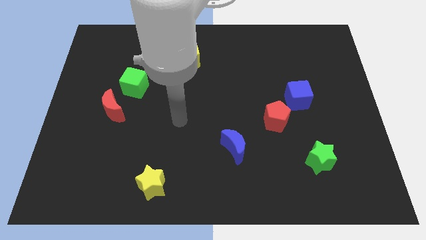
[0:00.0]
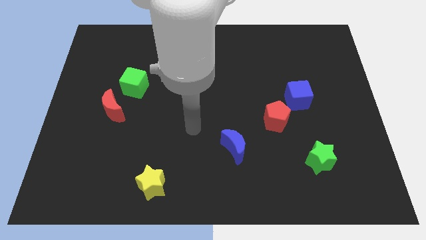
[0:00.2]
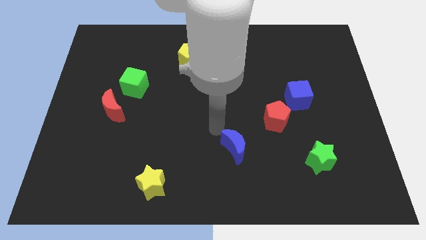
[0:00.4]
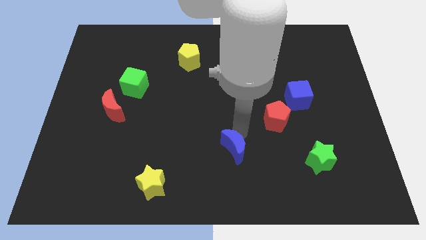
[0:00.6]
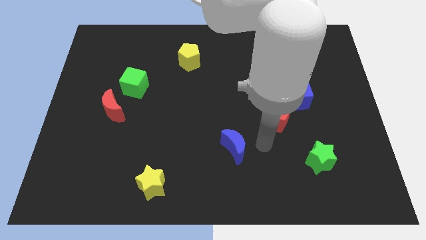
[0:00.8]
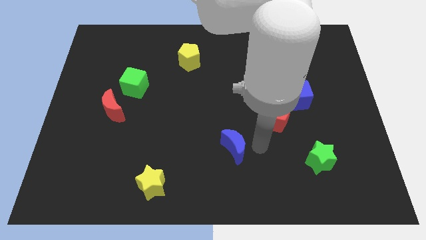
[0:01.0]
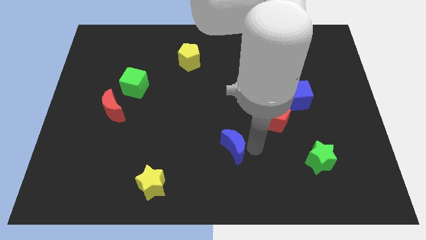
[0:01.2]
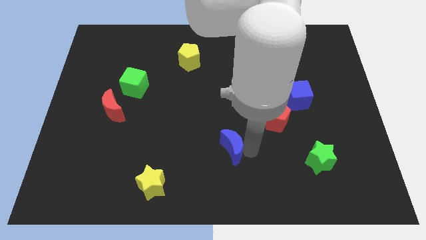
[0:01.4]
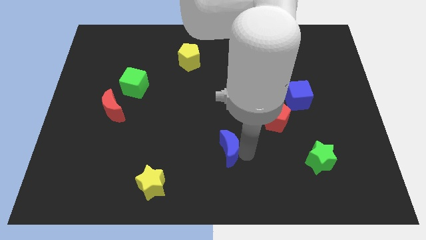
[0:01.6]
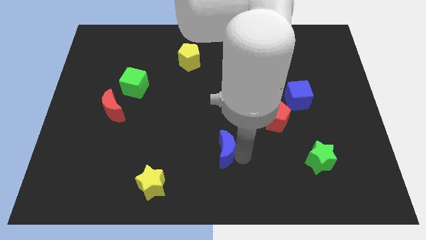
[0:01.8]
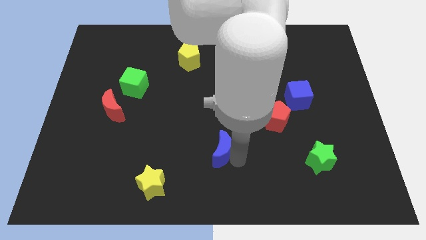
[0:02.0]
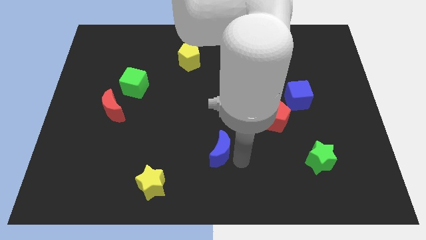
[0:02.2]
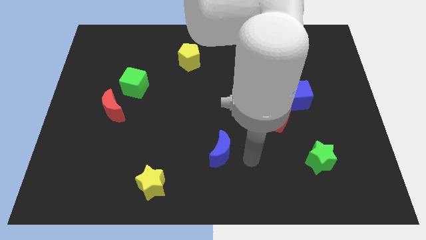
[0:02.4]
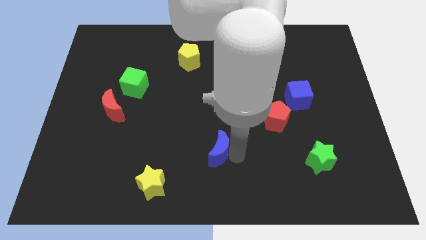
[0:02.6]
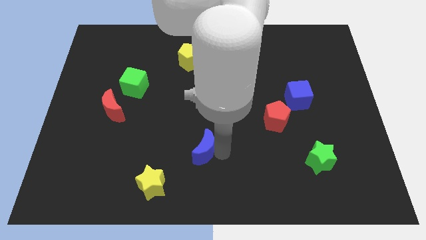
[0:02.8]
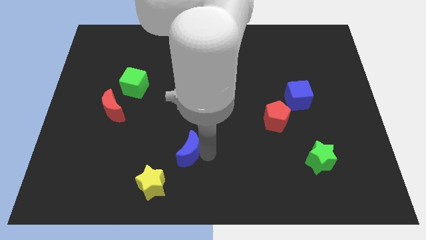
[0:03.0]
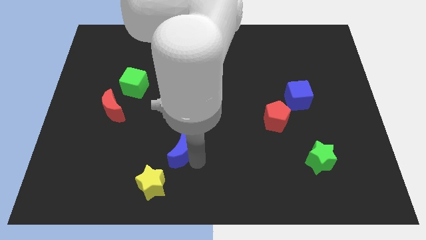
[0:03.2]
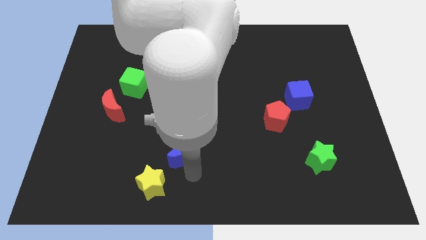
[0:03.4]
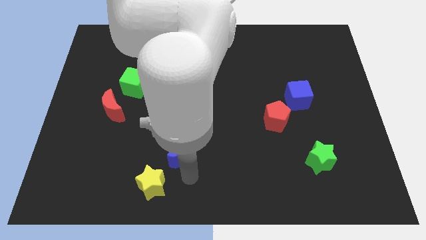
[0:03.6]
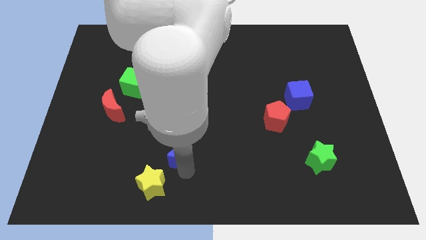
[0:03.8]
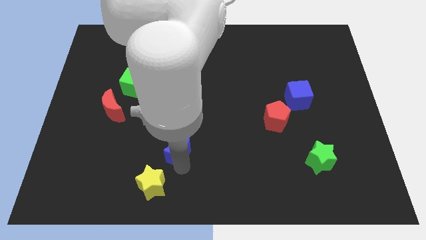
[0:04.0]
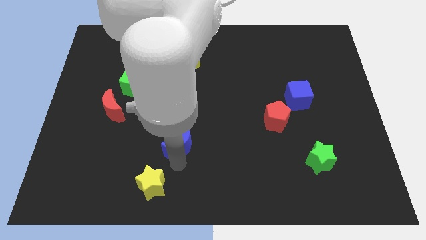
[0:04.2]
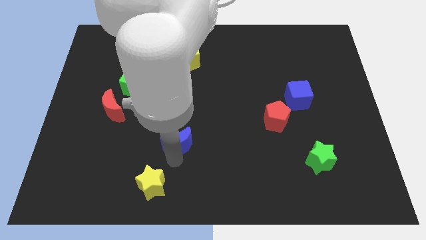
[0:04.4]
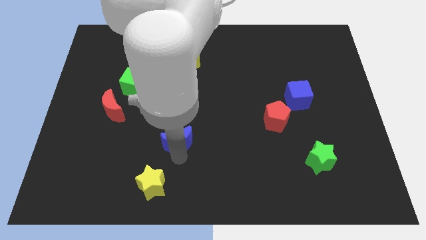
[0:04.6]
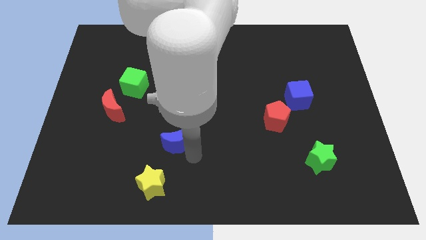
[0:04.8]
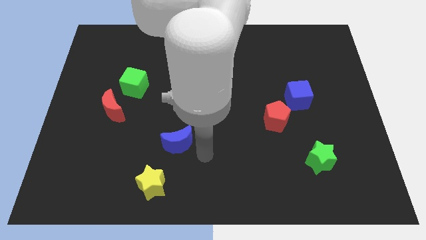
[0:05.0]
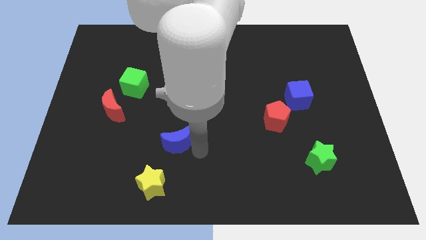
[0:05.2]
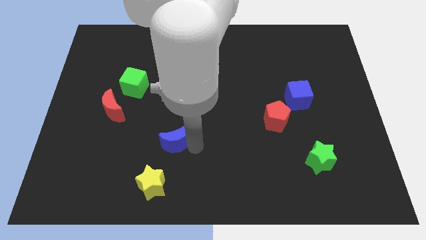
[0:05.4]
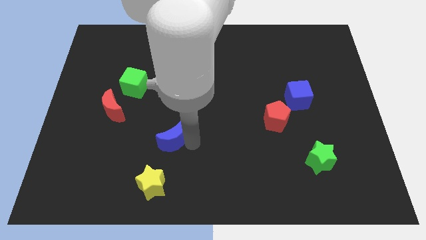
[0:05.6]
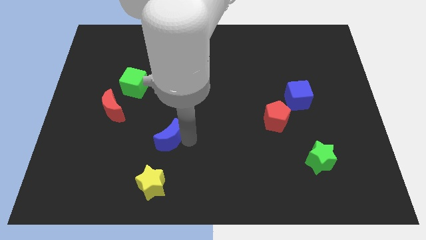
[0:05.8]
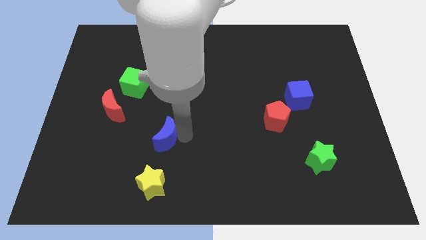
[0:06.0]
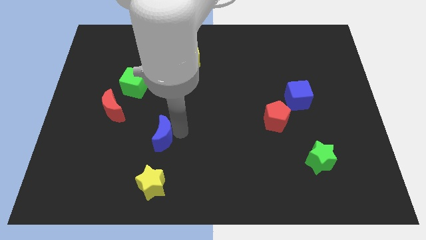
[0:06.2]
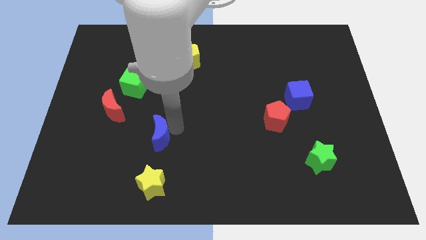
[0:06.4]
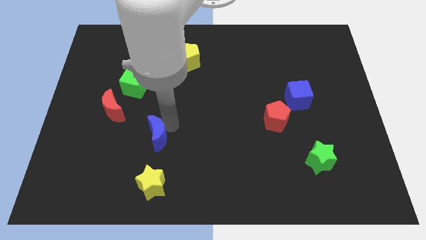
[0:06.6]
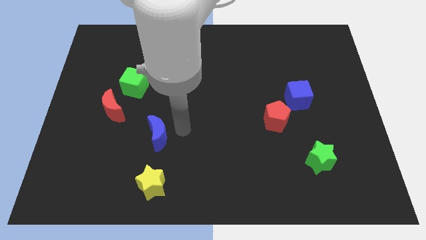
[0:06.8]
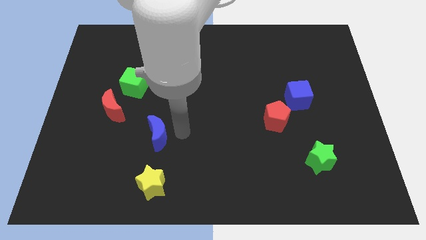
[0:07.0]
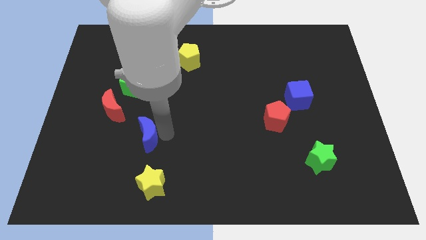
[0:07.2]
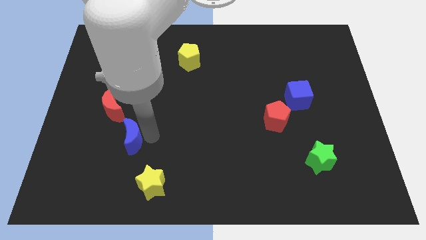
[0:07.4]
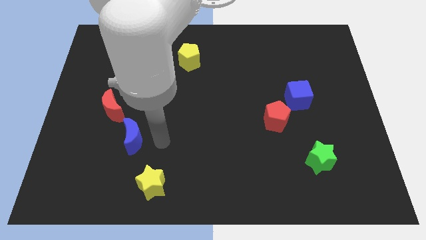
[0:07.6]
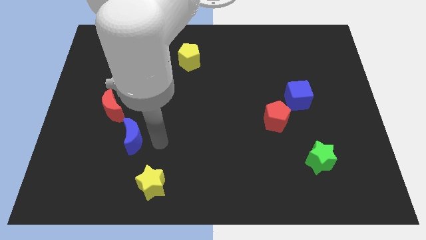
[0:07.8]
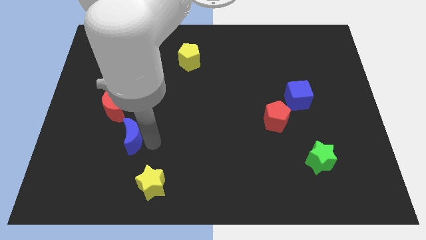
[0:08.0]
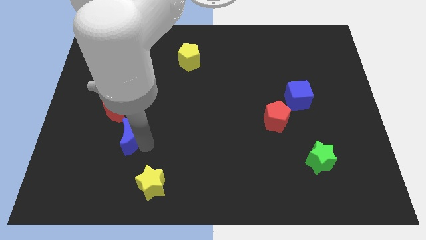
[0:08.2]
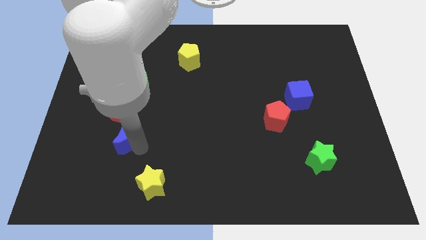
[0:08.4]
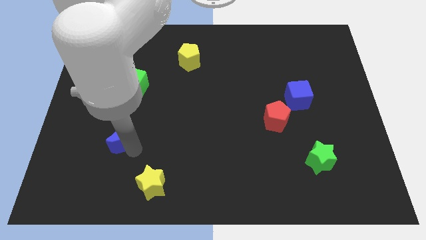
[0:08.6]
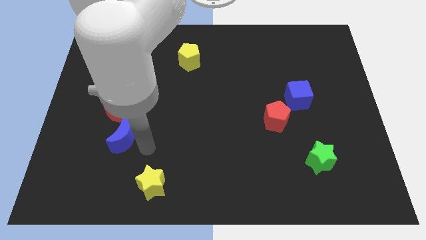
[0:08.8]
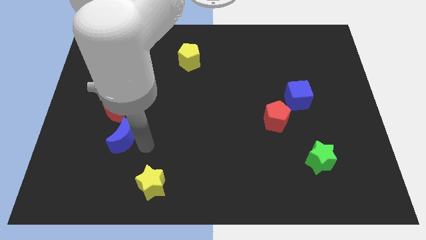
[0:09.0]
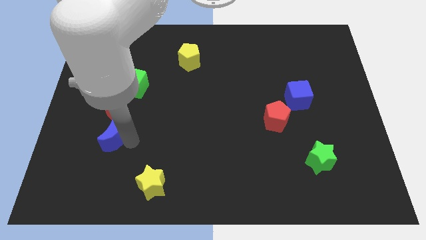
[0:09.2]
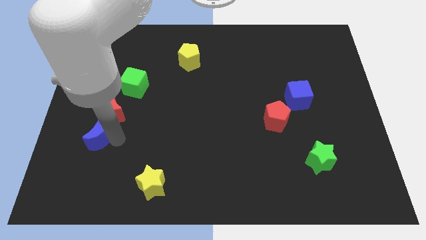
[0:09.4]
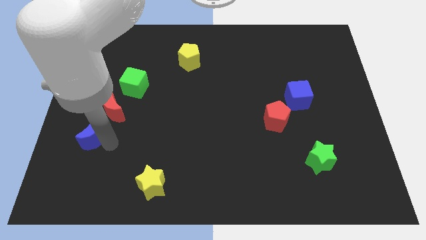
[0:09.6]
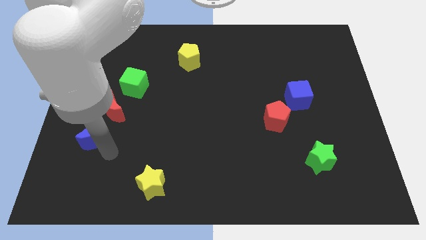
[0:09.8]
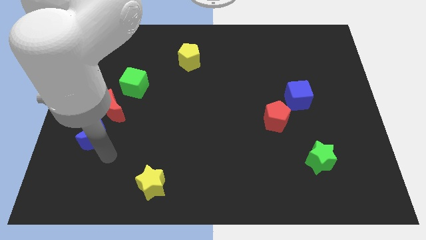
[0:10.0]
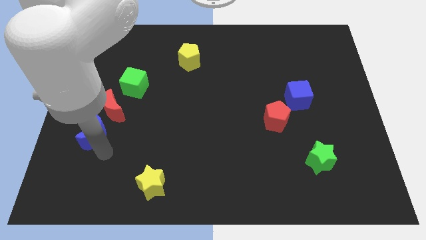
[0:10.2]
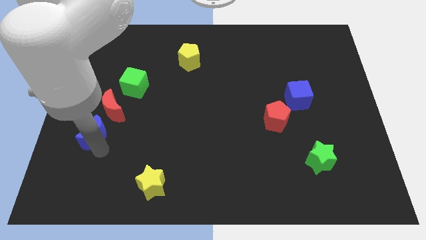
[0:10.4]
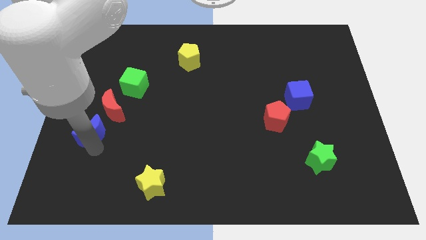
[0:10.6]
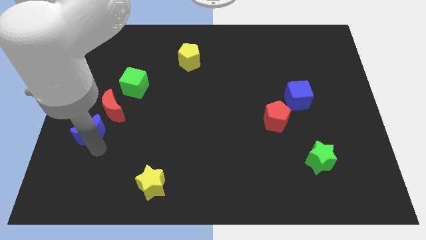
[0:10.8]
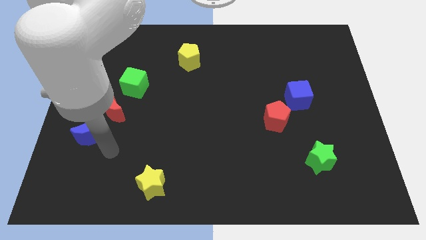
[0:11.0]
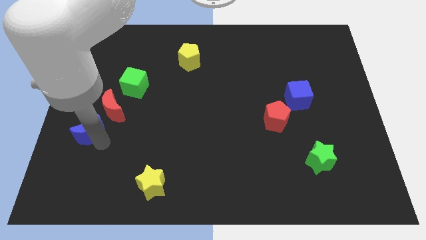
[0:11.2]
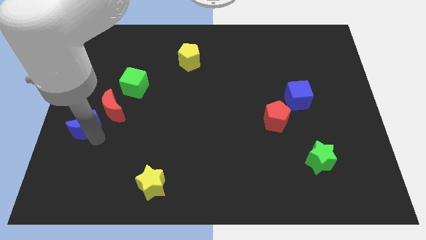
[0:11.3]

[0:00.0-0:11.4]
push the blue moon to the center left
